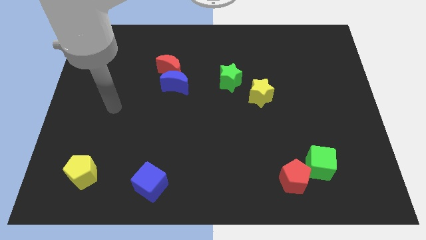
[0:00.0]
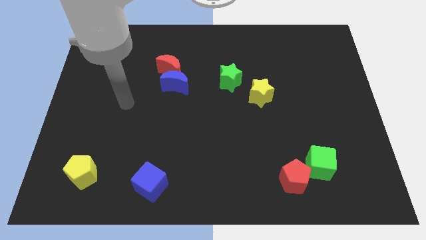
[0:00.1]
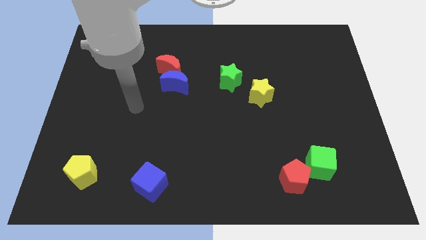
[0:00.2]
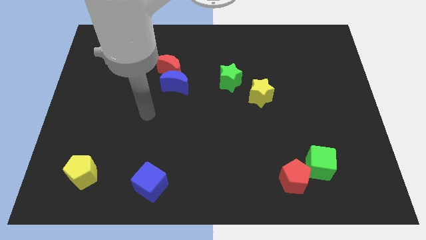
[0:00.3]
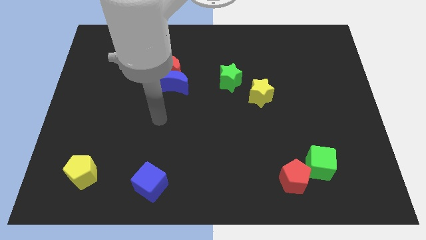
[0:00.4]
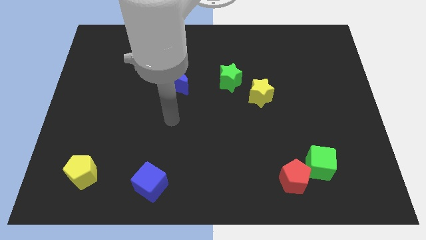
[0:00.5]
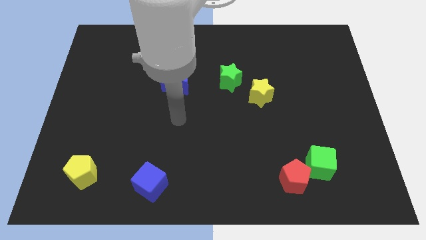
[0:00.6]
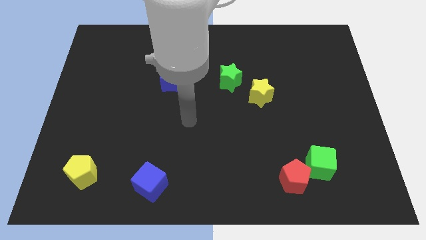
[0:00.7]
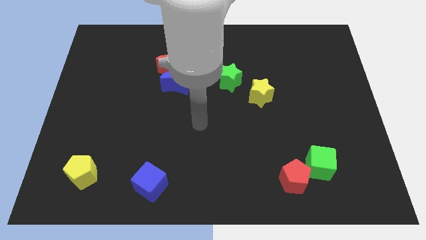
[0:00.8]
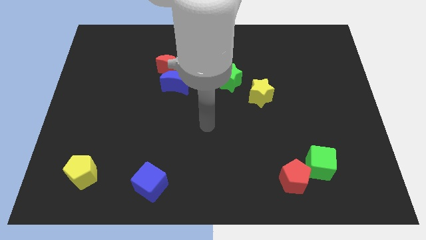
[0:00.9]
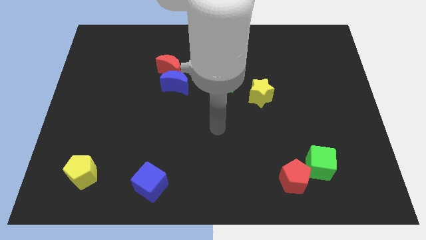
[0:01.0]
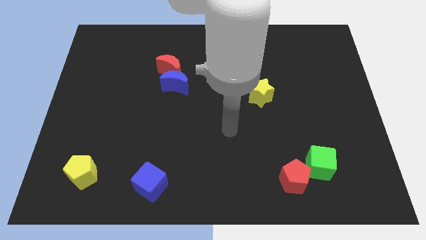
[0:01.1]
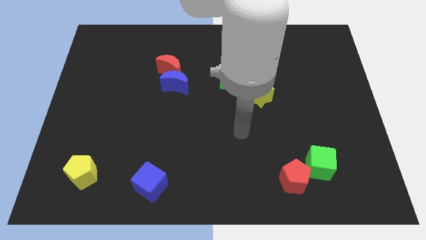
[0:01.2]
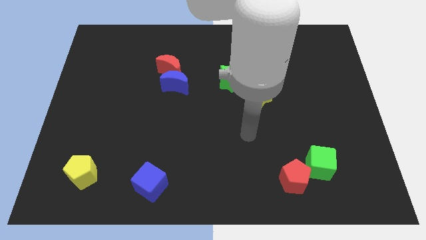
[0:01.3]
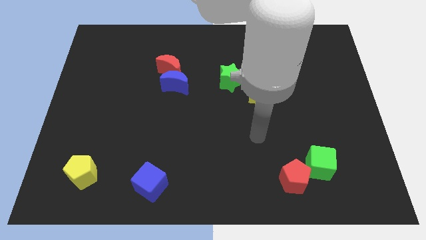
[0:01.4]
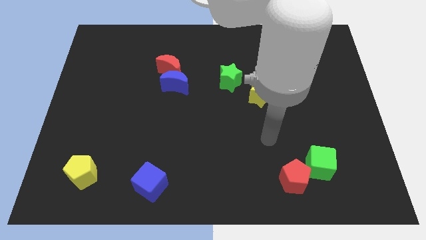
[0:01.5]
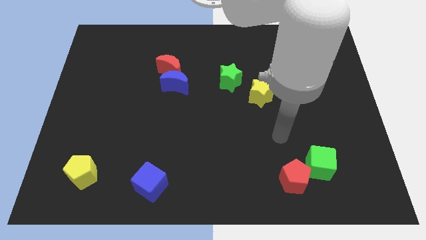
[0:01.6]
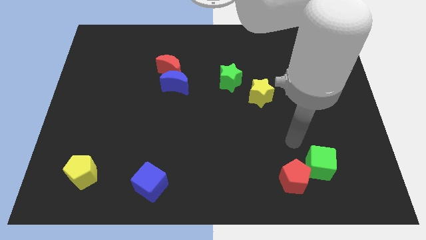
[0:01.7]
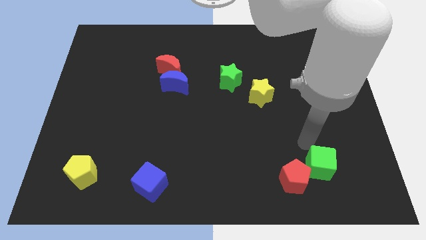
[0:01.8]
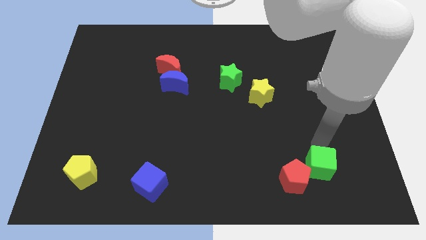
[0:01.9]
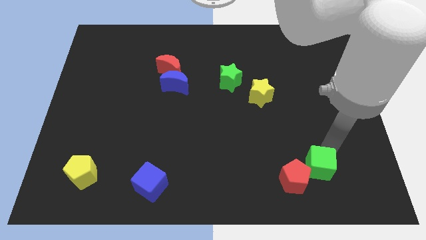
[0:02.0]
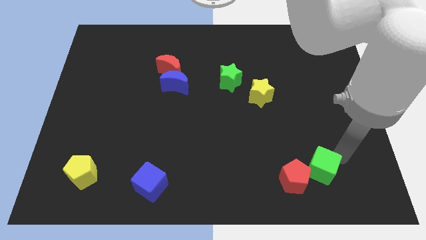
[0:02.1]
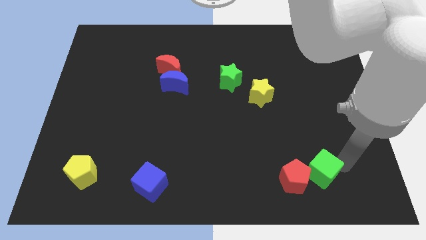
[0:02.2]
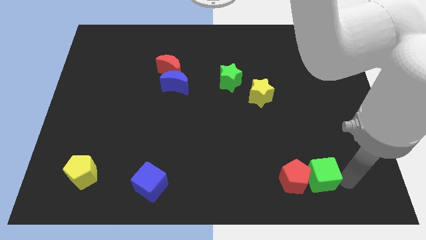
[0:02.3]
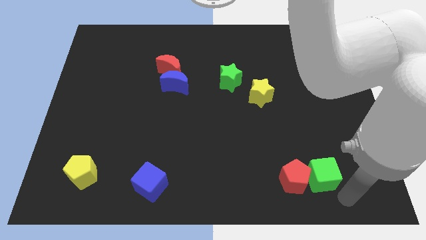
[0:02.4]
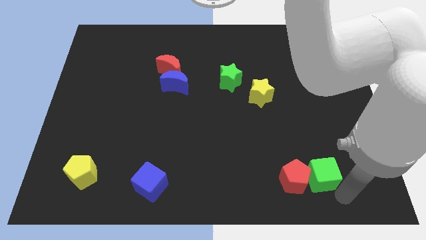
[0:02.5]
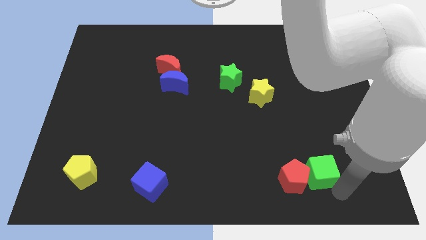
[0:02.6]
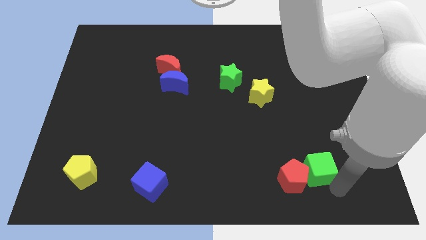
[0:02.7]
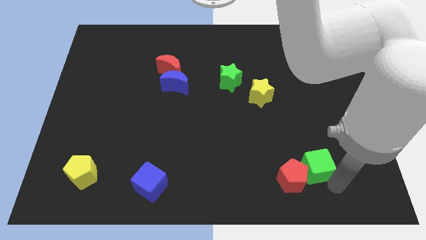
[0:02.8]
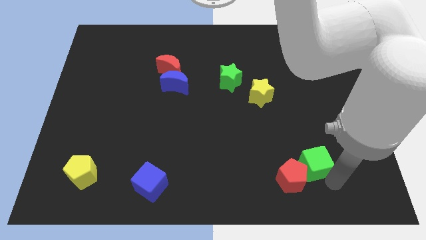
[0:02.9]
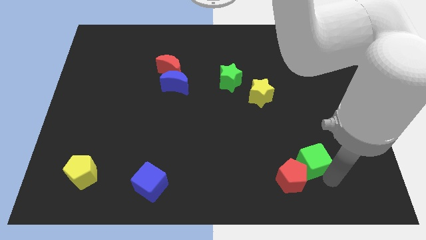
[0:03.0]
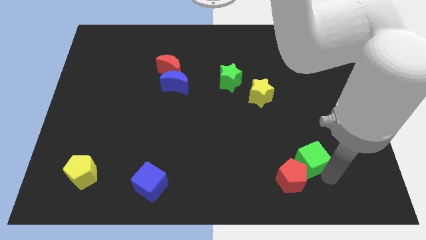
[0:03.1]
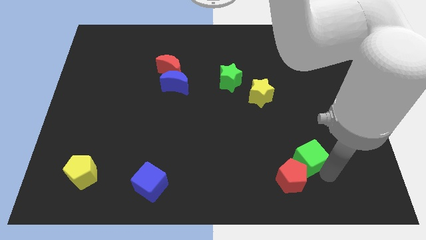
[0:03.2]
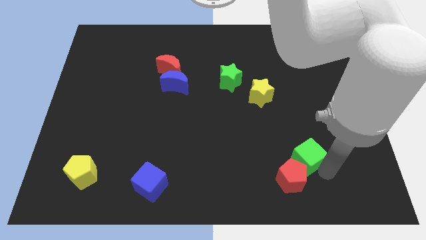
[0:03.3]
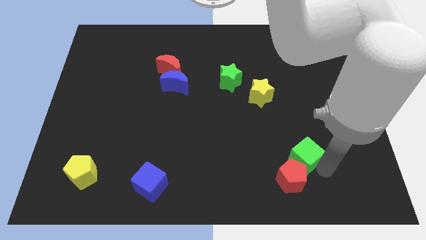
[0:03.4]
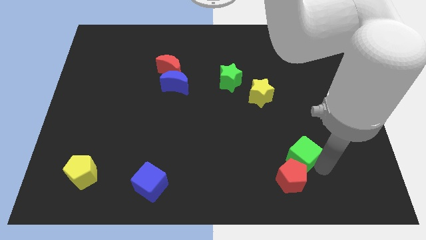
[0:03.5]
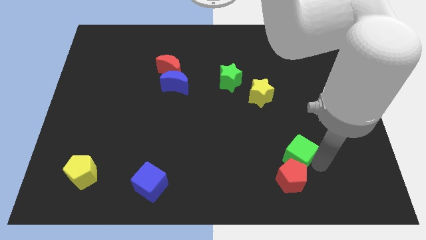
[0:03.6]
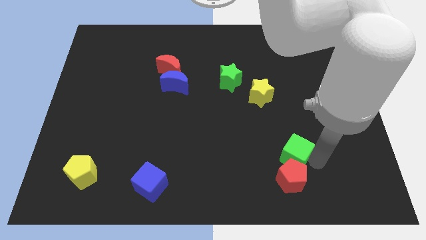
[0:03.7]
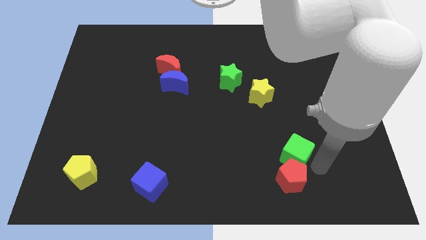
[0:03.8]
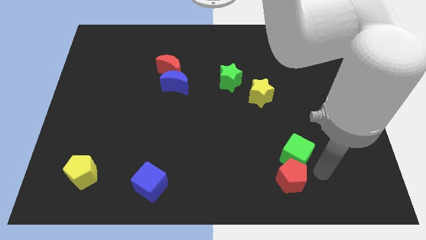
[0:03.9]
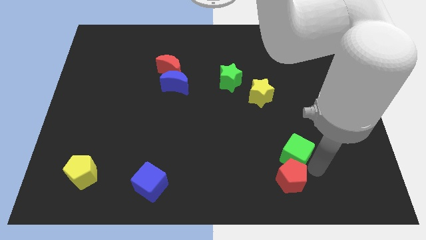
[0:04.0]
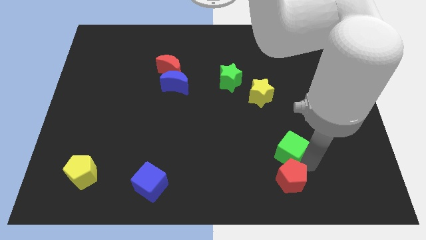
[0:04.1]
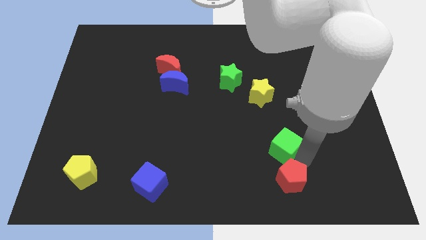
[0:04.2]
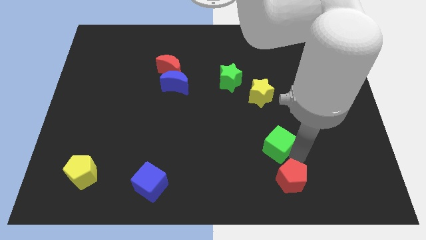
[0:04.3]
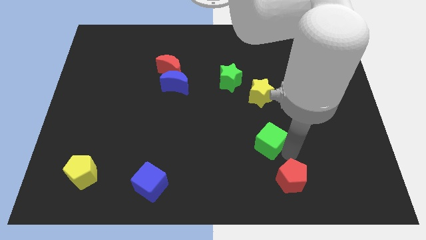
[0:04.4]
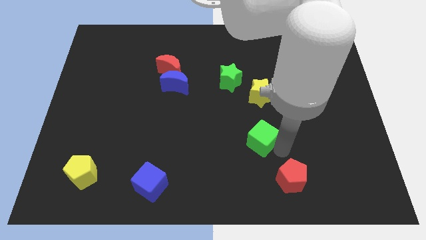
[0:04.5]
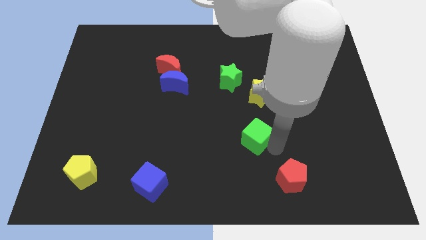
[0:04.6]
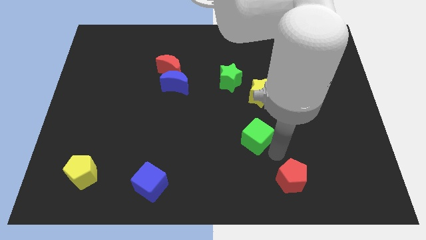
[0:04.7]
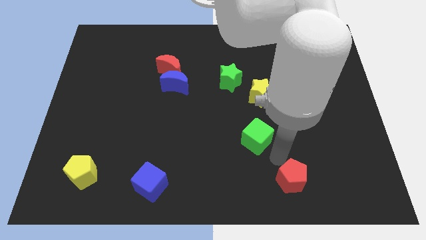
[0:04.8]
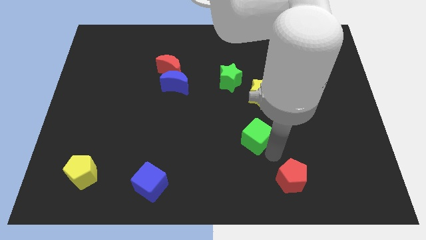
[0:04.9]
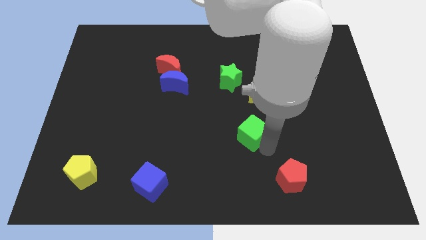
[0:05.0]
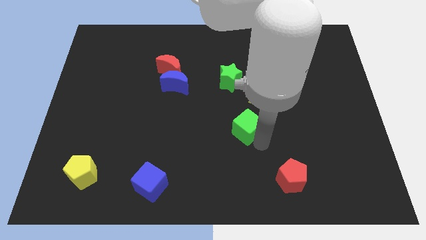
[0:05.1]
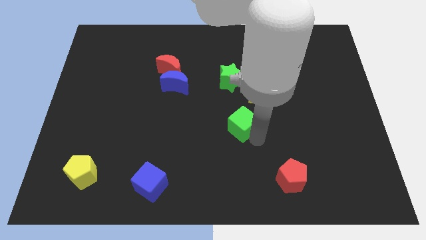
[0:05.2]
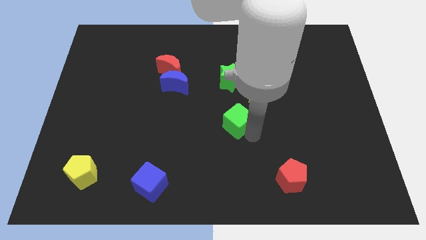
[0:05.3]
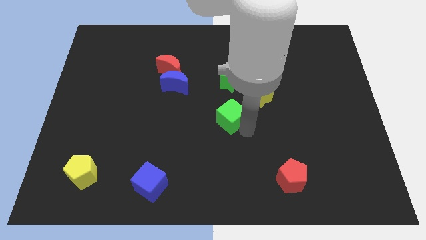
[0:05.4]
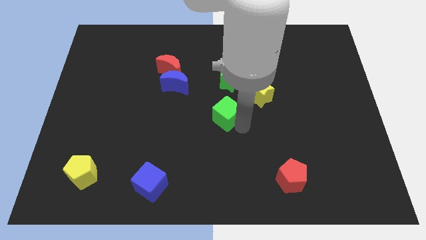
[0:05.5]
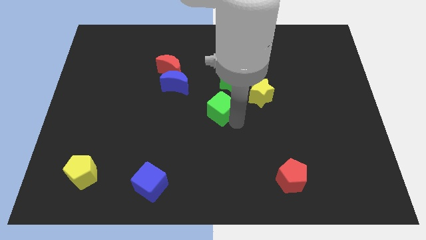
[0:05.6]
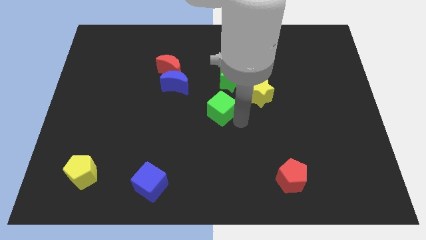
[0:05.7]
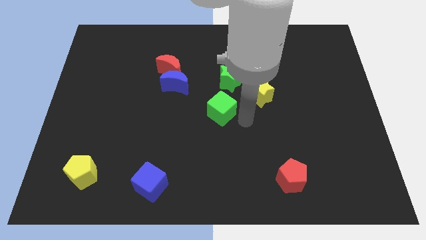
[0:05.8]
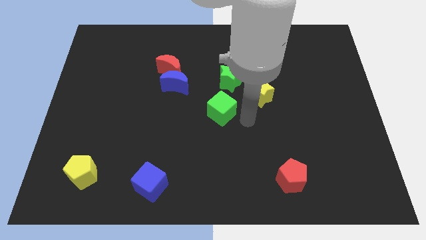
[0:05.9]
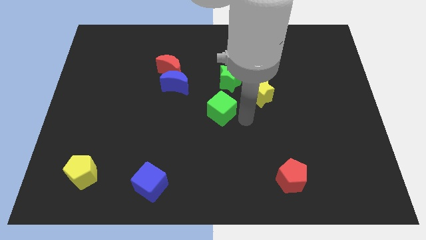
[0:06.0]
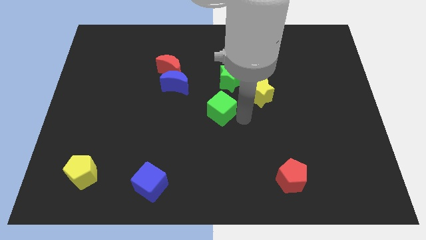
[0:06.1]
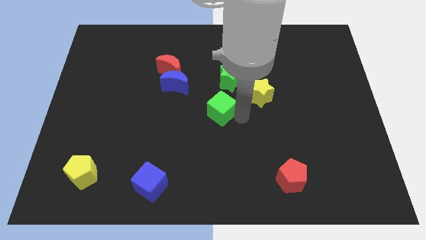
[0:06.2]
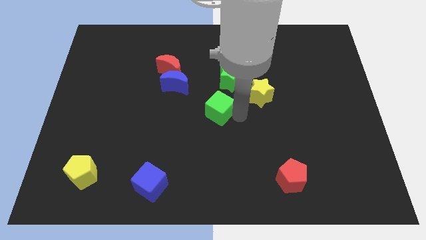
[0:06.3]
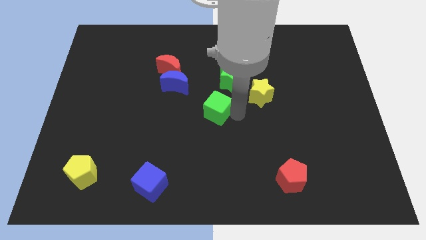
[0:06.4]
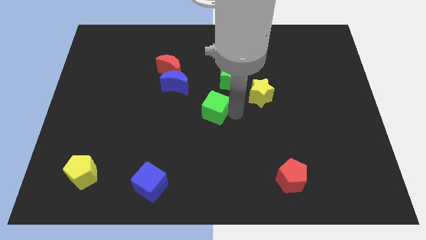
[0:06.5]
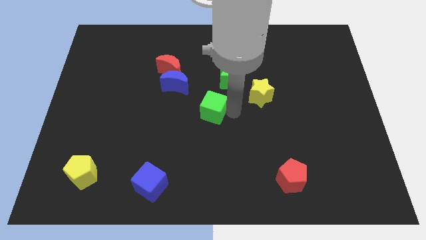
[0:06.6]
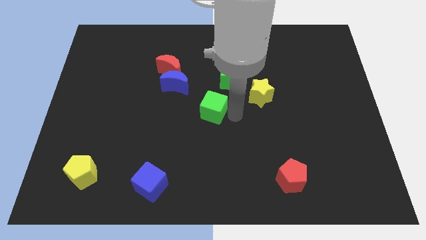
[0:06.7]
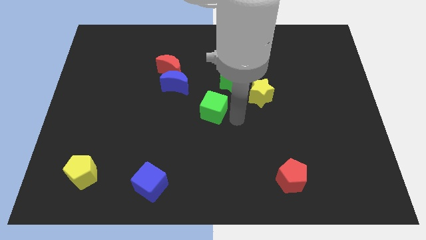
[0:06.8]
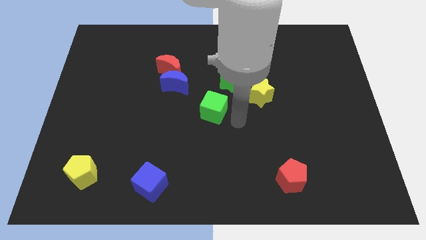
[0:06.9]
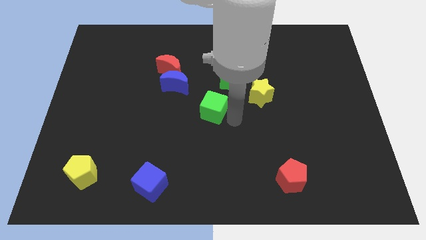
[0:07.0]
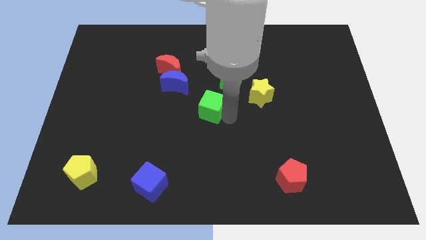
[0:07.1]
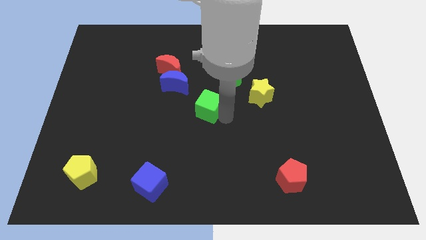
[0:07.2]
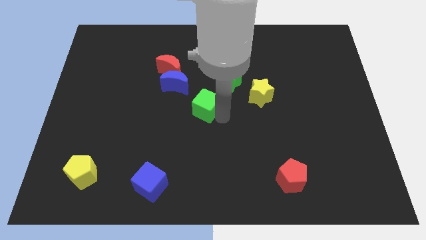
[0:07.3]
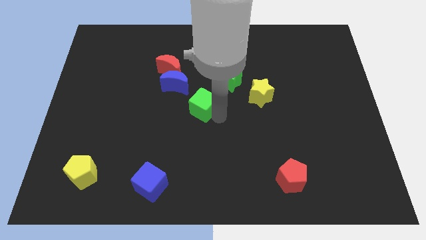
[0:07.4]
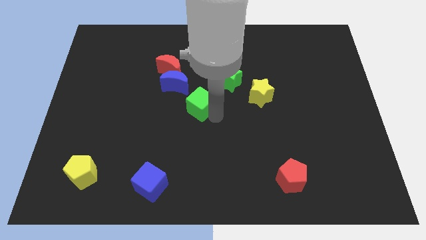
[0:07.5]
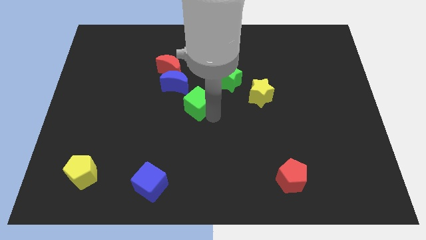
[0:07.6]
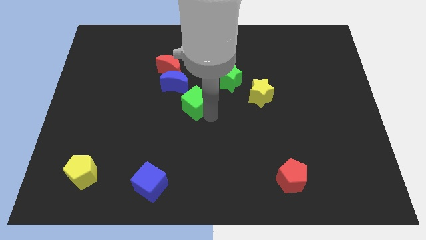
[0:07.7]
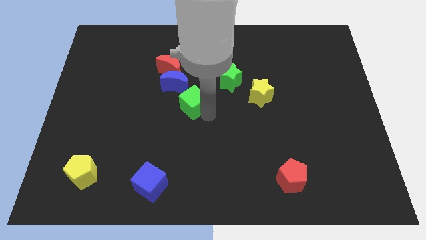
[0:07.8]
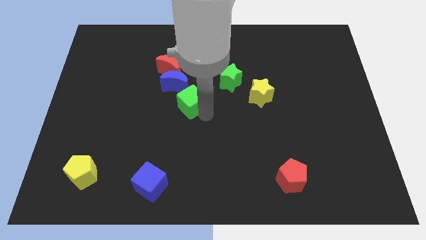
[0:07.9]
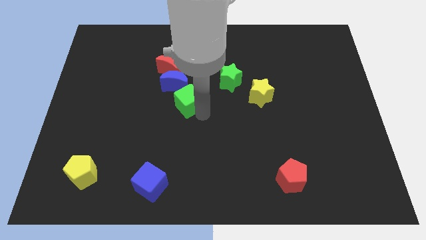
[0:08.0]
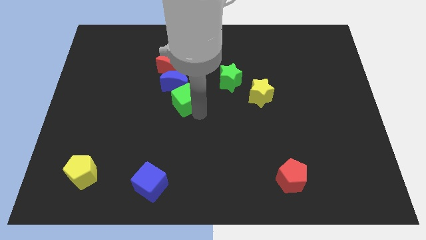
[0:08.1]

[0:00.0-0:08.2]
put the green cube close to the blue moon
